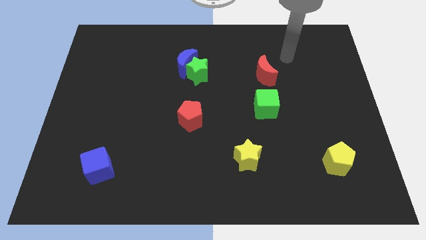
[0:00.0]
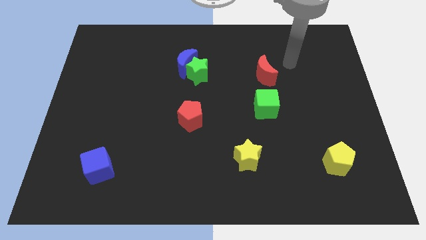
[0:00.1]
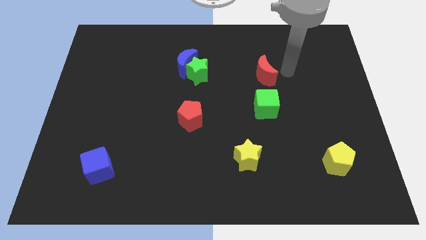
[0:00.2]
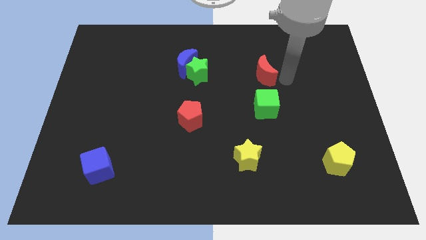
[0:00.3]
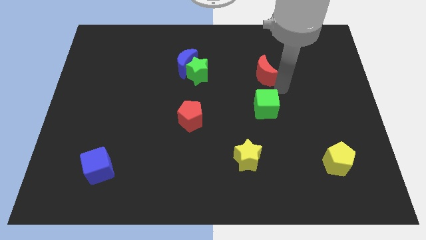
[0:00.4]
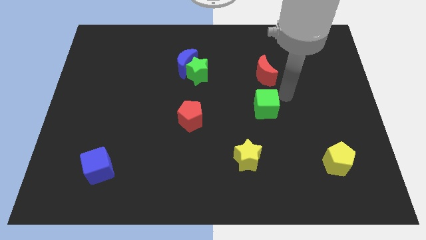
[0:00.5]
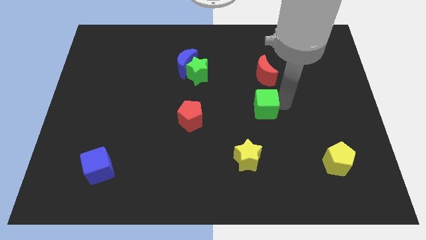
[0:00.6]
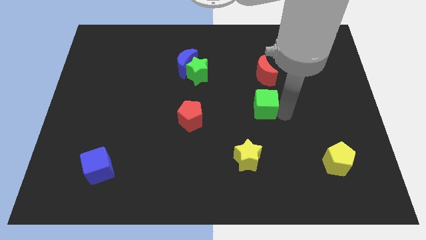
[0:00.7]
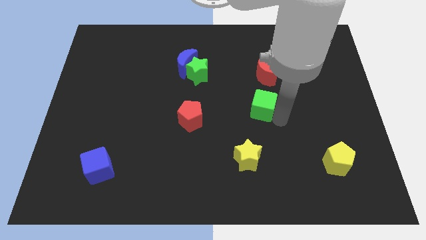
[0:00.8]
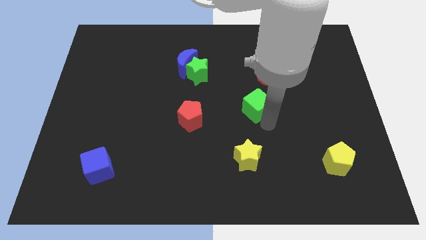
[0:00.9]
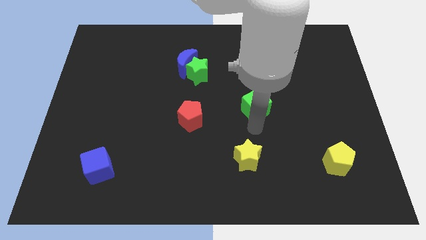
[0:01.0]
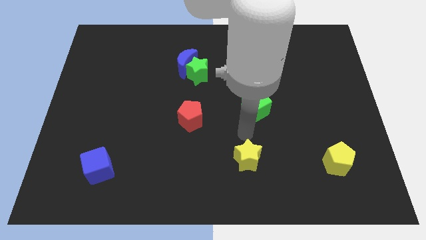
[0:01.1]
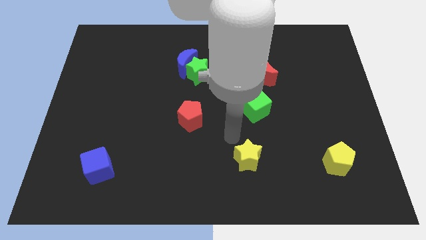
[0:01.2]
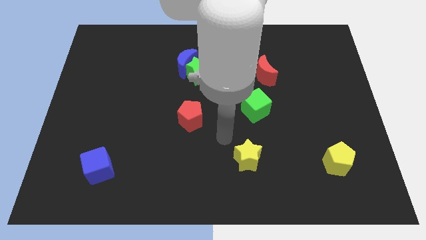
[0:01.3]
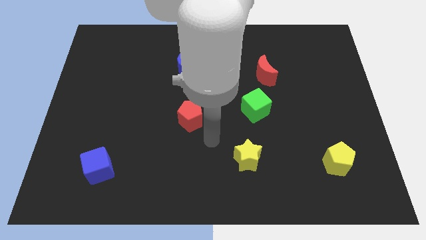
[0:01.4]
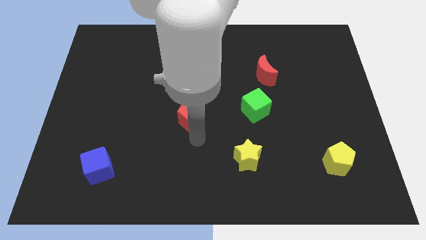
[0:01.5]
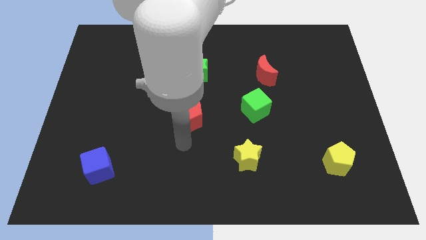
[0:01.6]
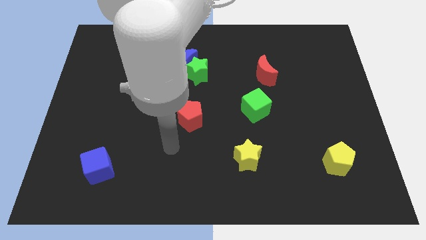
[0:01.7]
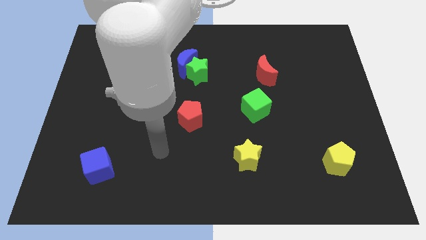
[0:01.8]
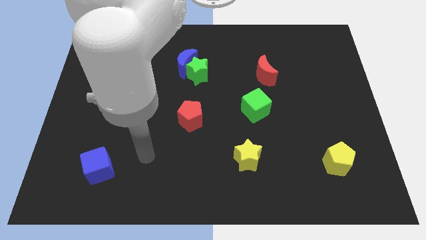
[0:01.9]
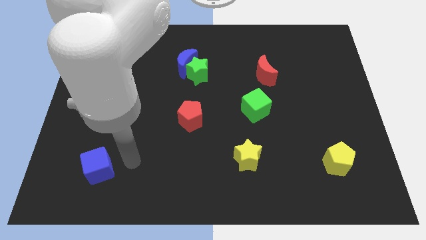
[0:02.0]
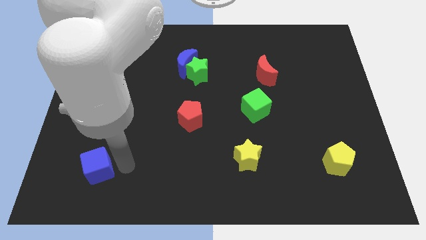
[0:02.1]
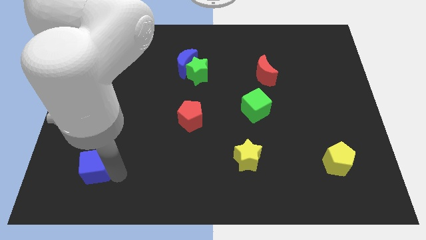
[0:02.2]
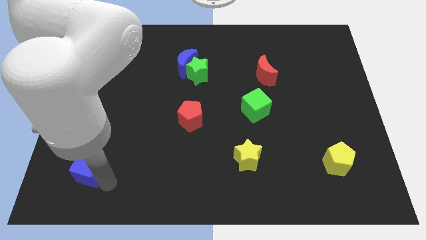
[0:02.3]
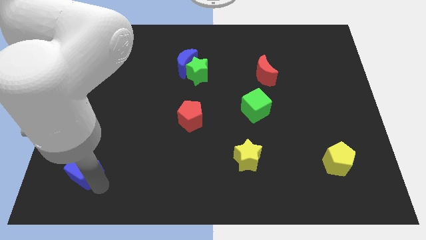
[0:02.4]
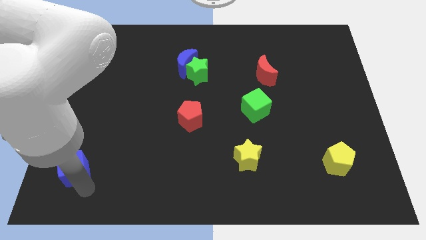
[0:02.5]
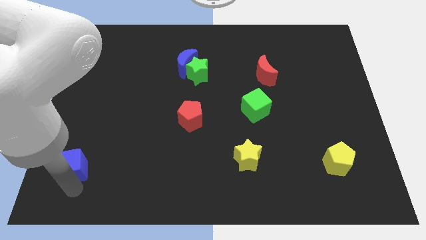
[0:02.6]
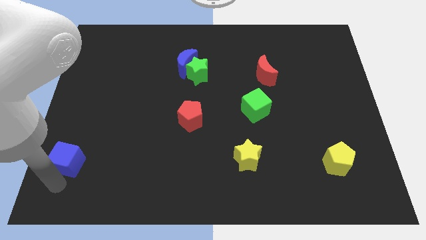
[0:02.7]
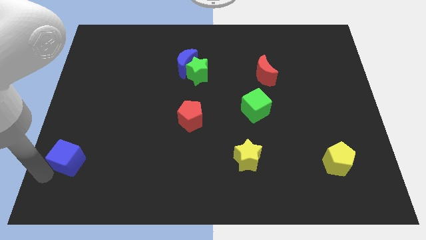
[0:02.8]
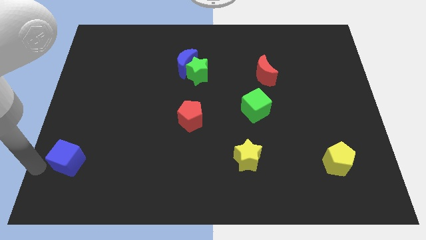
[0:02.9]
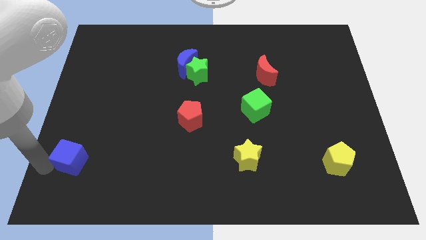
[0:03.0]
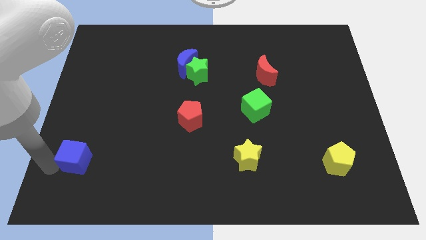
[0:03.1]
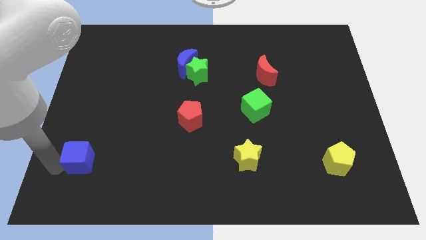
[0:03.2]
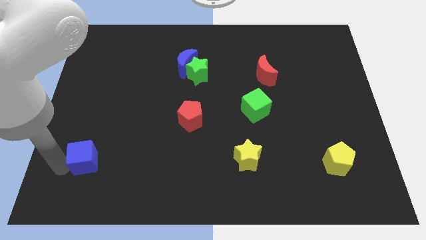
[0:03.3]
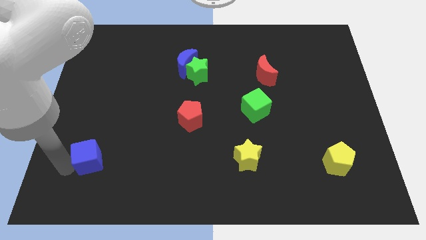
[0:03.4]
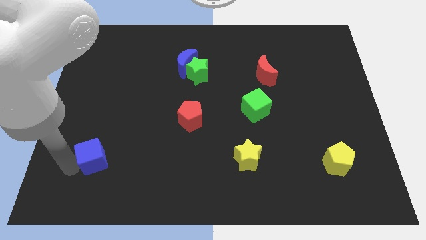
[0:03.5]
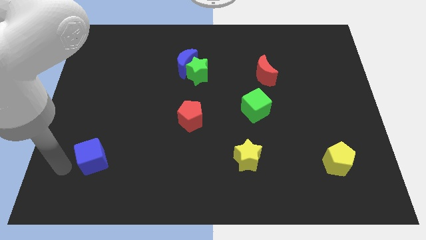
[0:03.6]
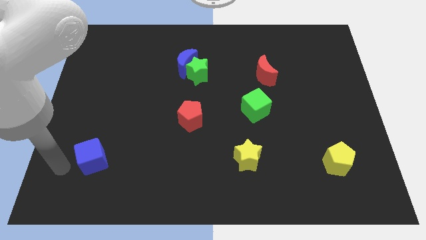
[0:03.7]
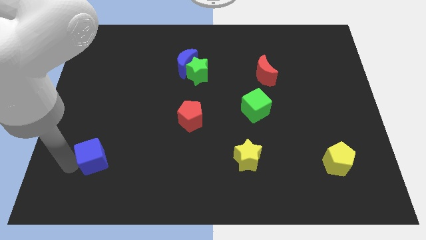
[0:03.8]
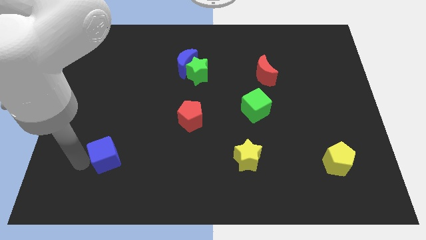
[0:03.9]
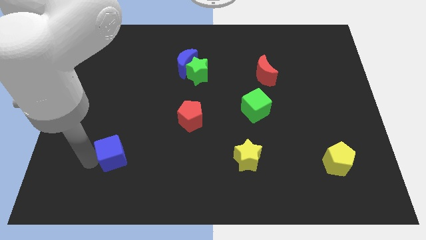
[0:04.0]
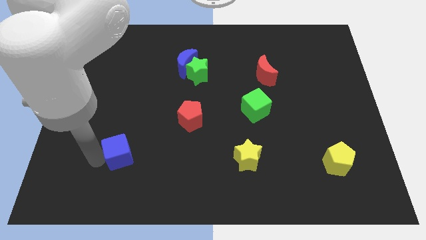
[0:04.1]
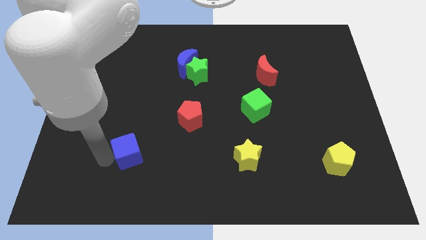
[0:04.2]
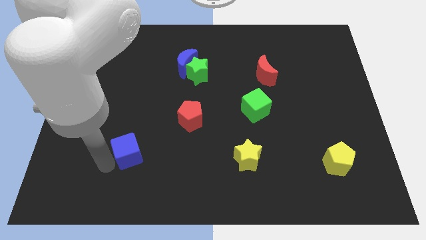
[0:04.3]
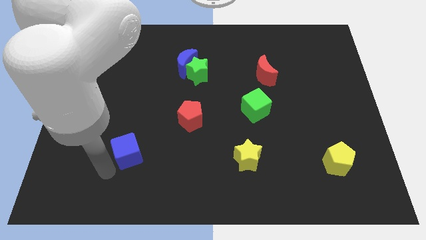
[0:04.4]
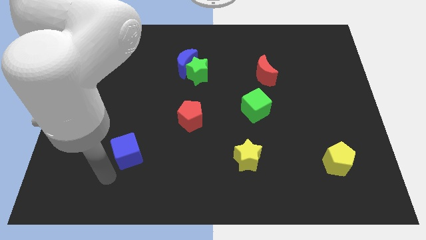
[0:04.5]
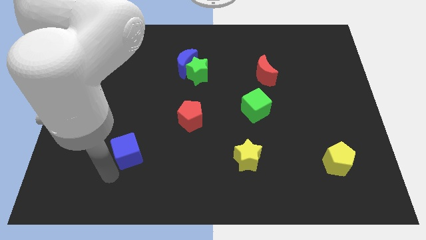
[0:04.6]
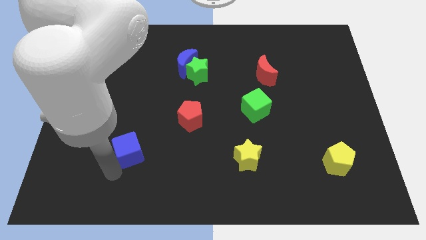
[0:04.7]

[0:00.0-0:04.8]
move the blue cube a bit upwards and right

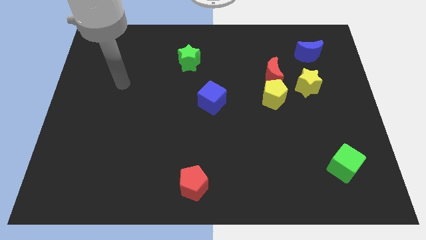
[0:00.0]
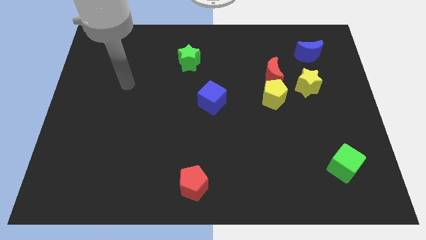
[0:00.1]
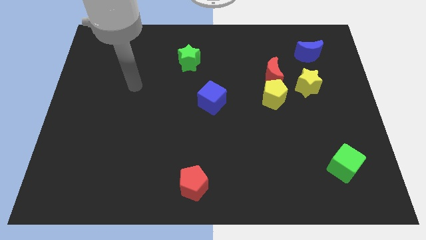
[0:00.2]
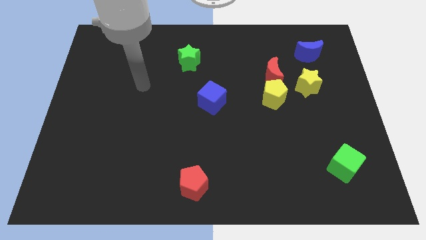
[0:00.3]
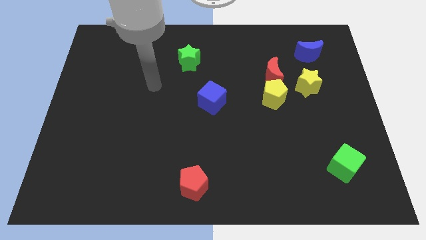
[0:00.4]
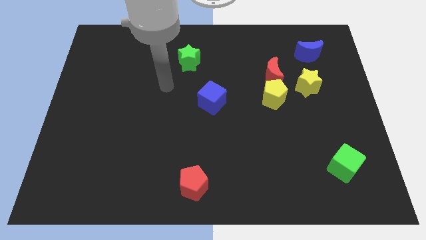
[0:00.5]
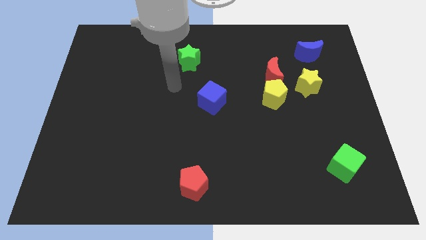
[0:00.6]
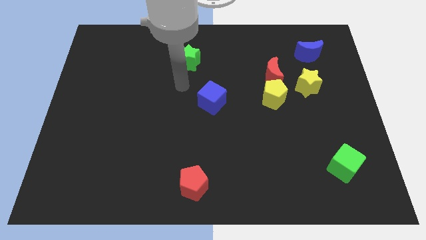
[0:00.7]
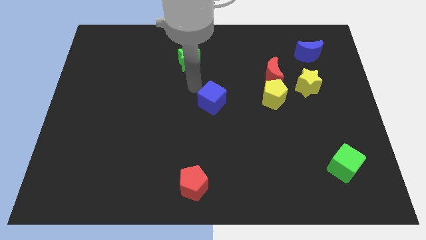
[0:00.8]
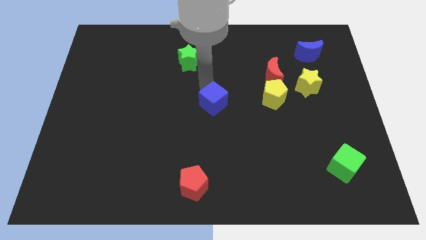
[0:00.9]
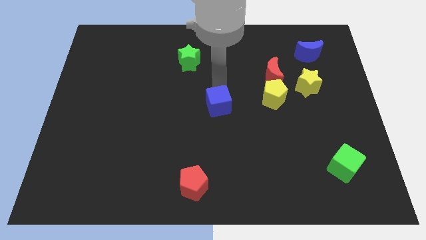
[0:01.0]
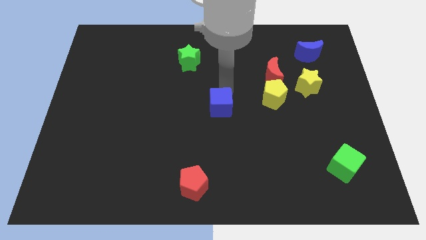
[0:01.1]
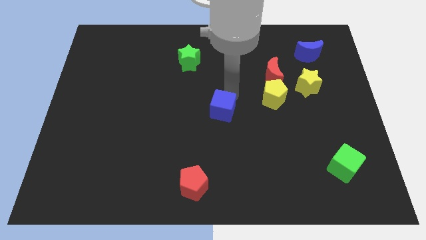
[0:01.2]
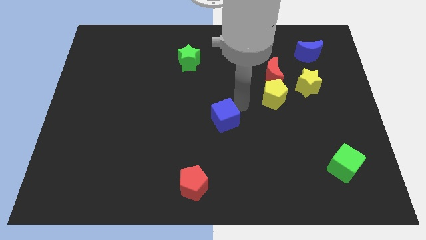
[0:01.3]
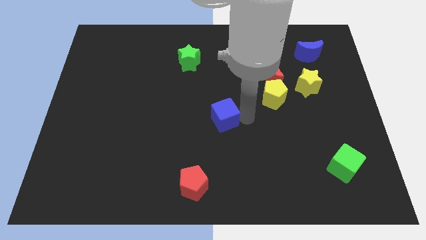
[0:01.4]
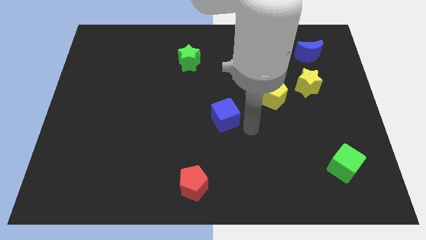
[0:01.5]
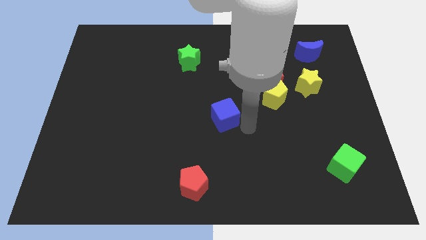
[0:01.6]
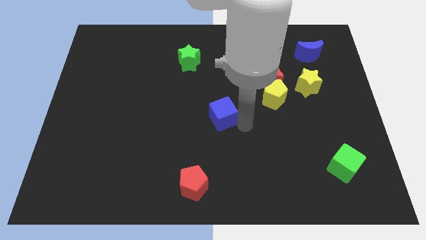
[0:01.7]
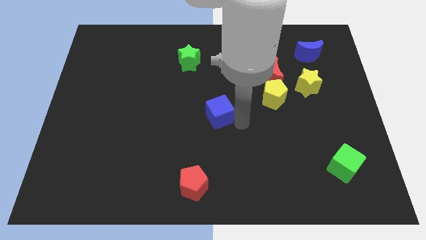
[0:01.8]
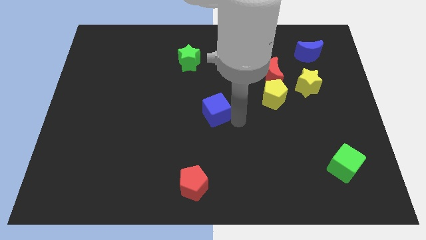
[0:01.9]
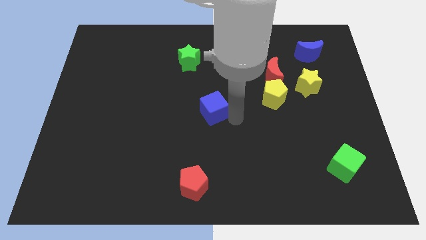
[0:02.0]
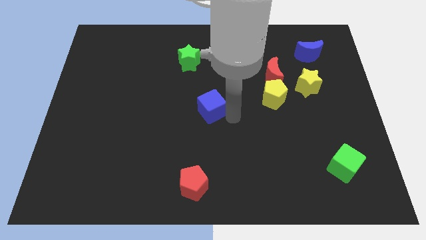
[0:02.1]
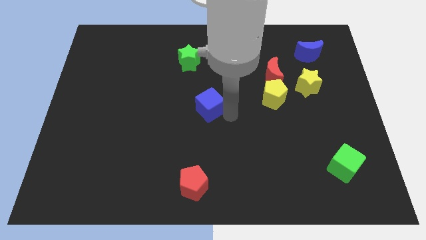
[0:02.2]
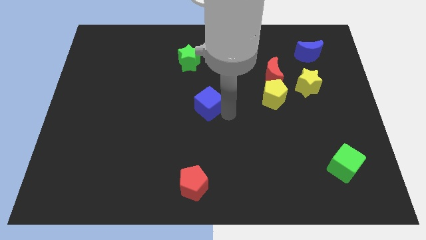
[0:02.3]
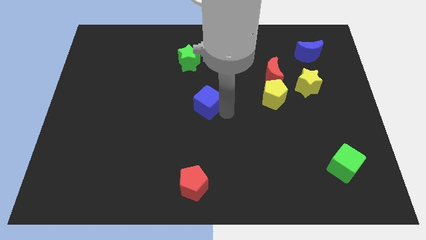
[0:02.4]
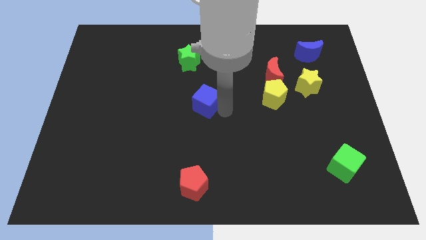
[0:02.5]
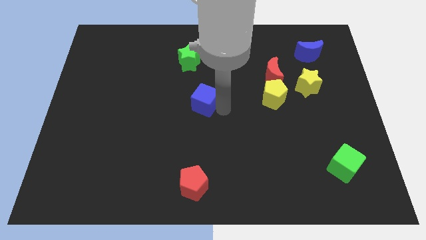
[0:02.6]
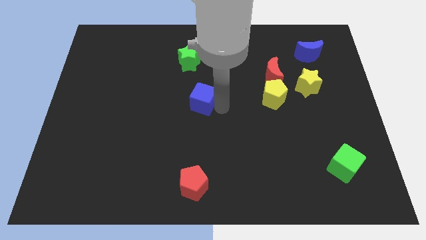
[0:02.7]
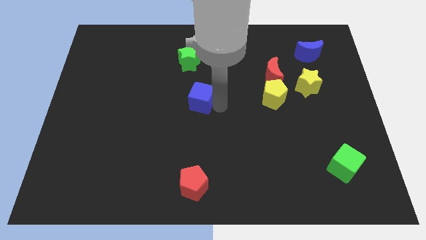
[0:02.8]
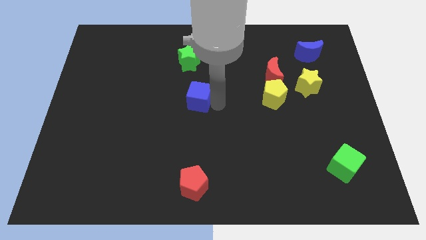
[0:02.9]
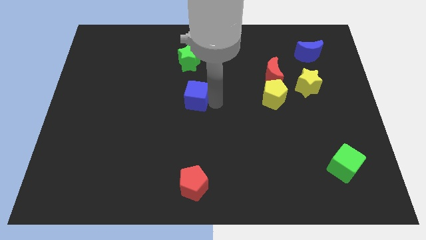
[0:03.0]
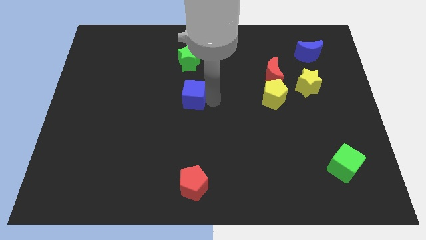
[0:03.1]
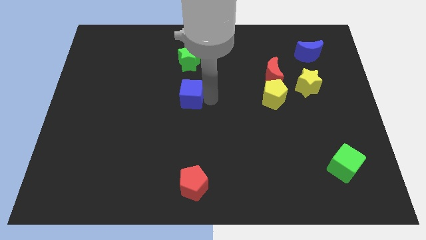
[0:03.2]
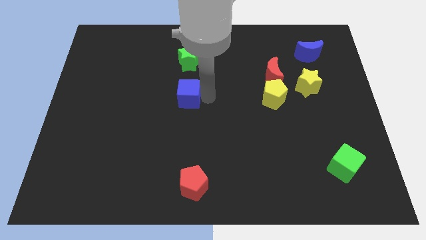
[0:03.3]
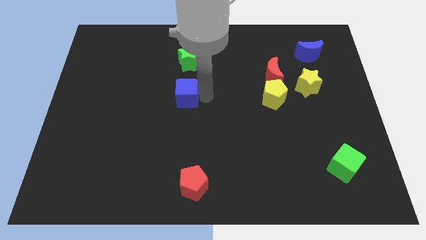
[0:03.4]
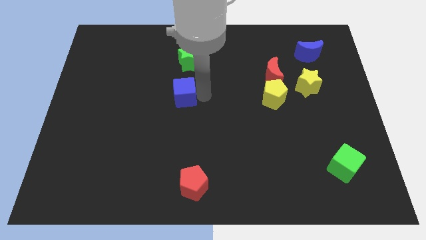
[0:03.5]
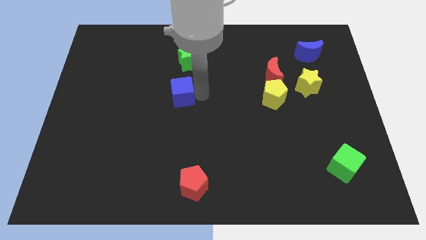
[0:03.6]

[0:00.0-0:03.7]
slightly push the blue cube to the left

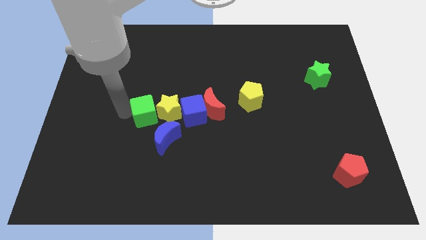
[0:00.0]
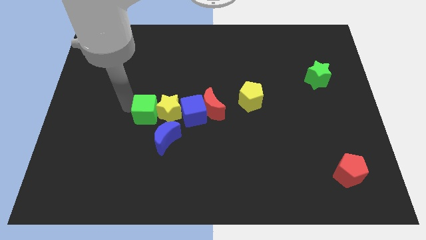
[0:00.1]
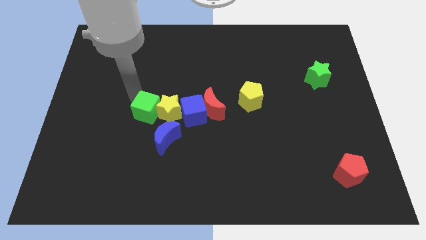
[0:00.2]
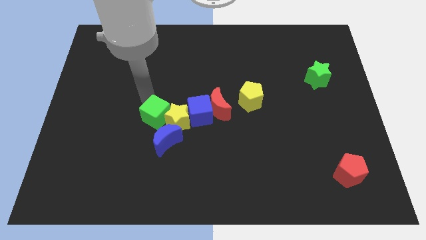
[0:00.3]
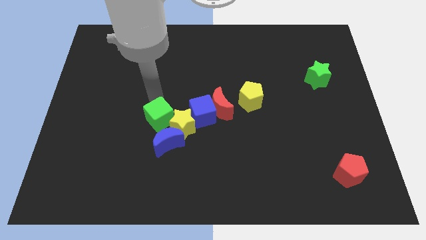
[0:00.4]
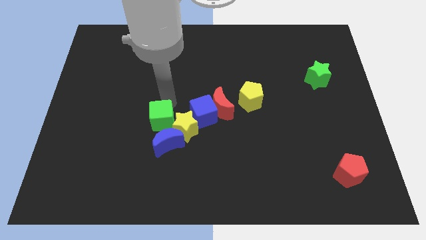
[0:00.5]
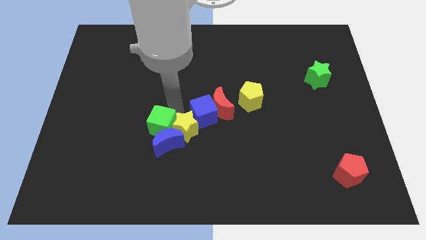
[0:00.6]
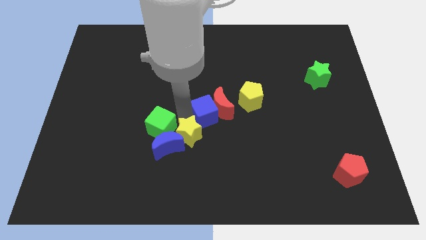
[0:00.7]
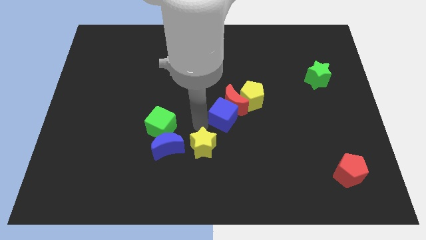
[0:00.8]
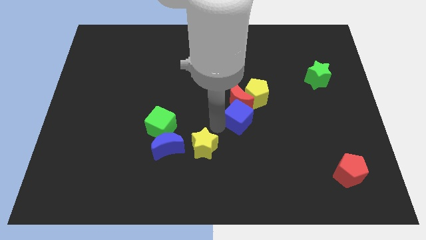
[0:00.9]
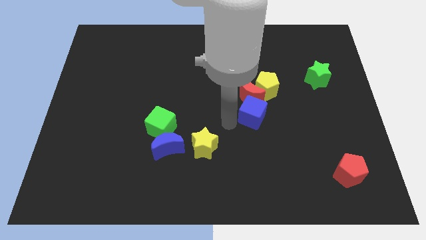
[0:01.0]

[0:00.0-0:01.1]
move the red moon a little diagonally up and right
